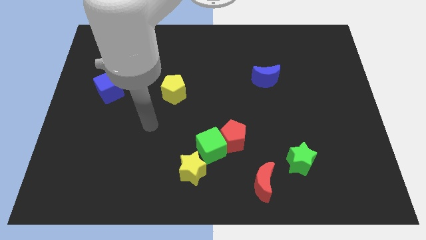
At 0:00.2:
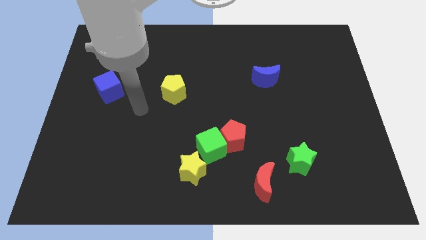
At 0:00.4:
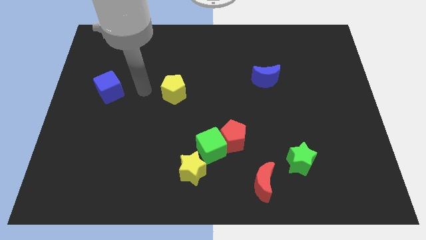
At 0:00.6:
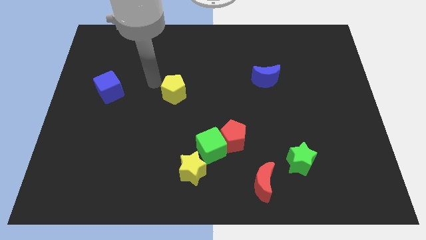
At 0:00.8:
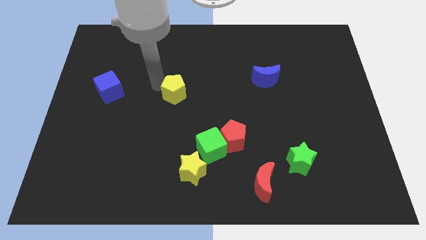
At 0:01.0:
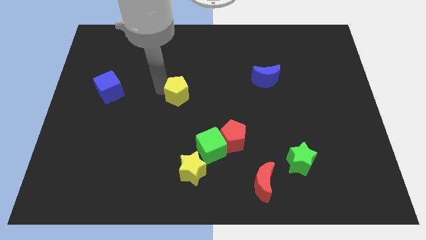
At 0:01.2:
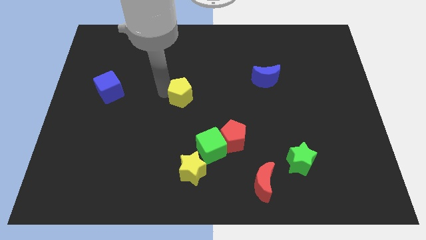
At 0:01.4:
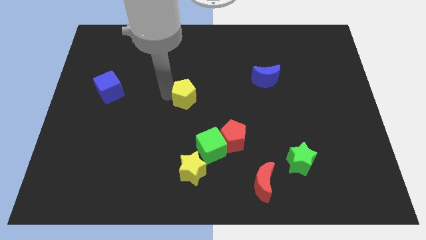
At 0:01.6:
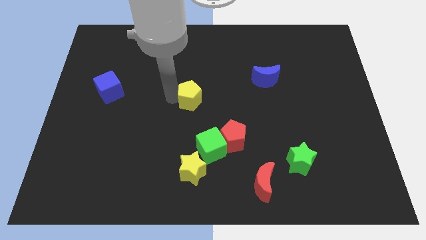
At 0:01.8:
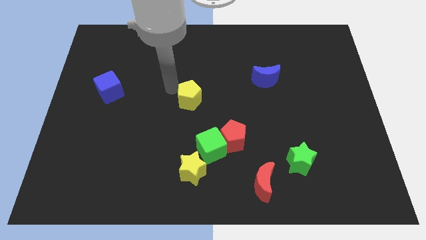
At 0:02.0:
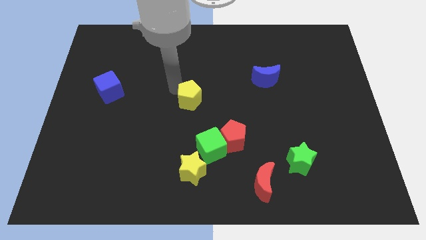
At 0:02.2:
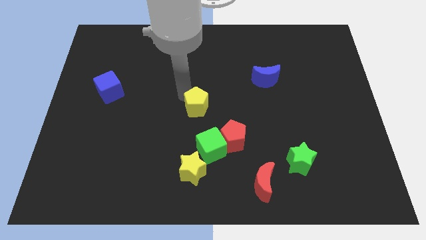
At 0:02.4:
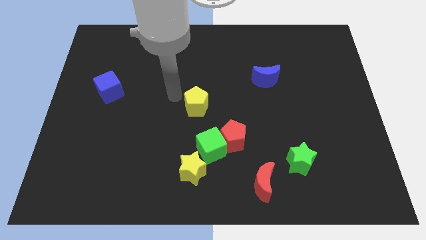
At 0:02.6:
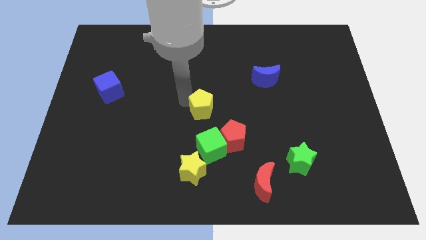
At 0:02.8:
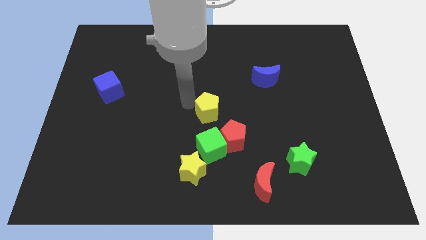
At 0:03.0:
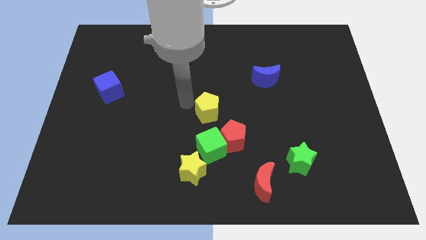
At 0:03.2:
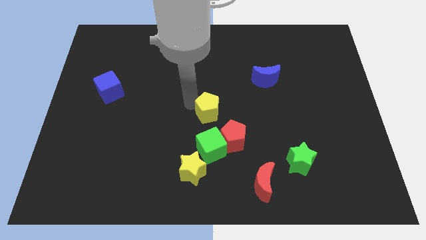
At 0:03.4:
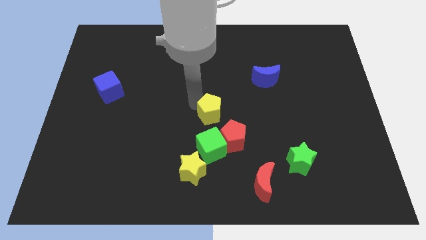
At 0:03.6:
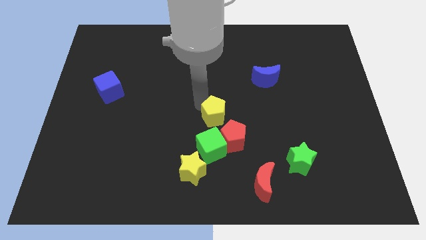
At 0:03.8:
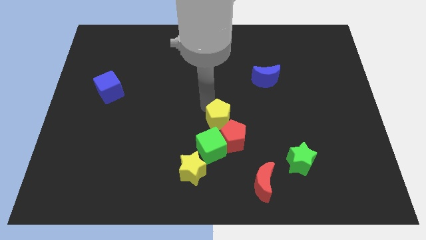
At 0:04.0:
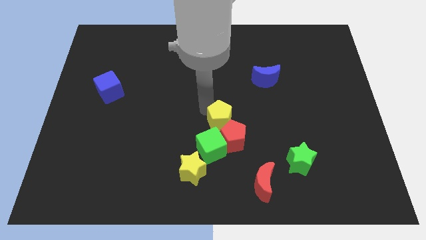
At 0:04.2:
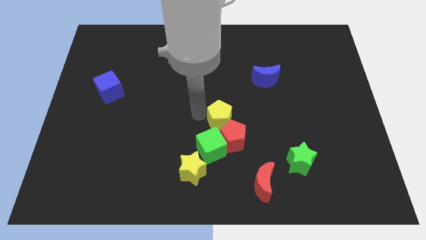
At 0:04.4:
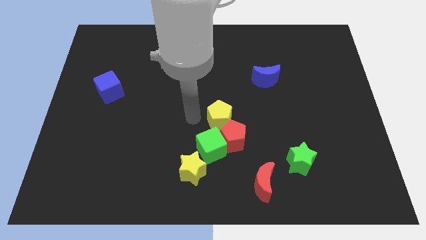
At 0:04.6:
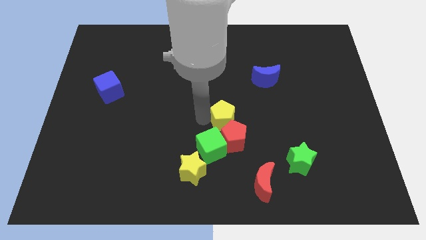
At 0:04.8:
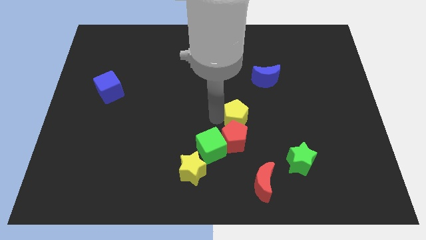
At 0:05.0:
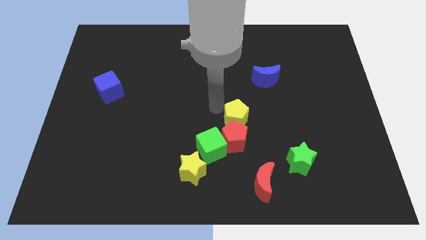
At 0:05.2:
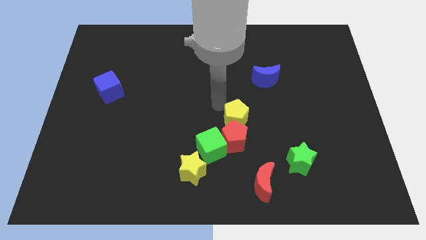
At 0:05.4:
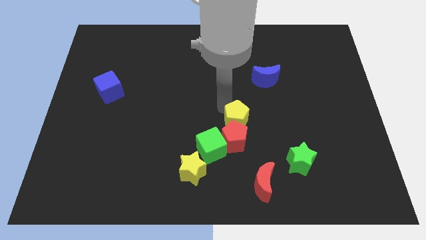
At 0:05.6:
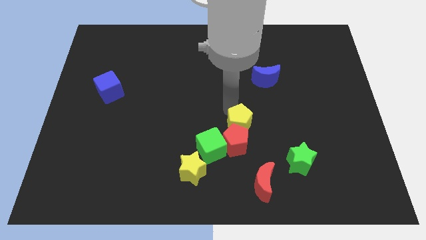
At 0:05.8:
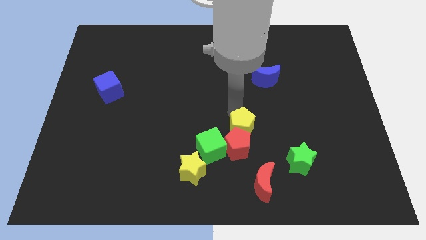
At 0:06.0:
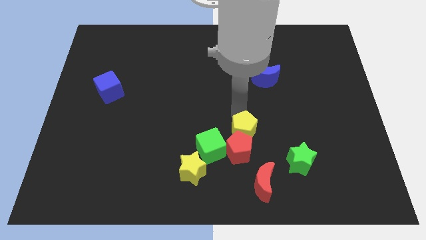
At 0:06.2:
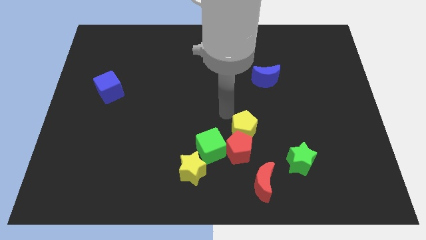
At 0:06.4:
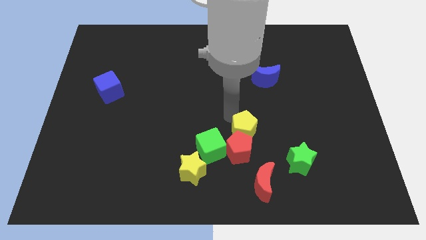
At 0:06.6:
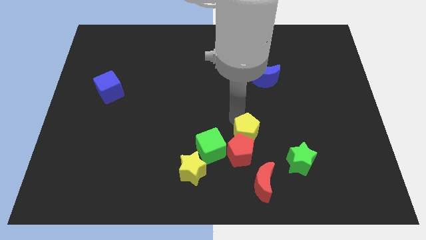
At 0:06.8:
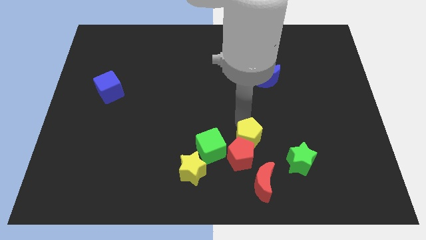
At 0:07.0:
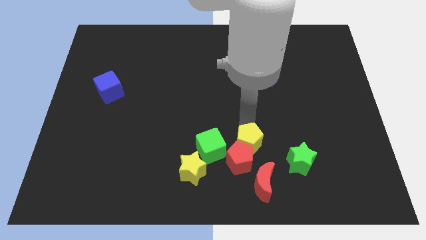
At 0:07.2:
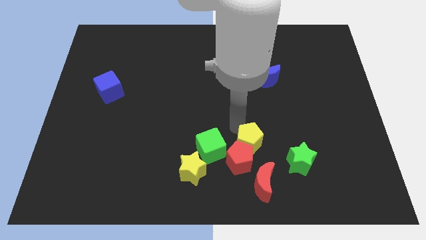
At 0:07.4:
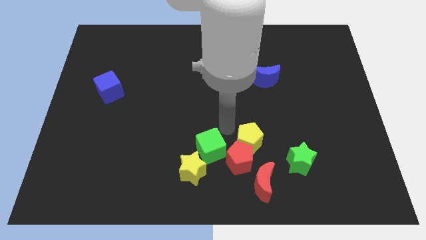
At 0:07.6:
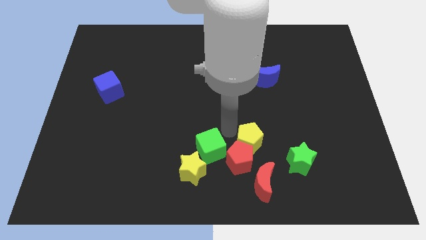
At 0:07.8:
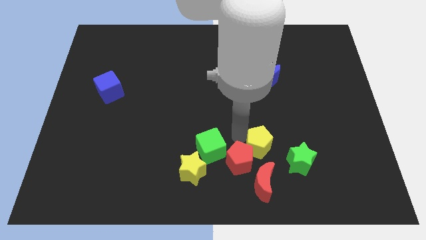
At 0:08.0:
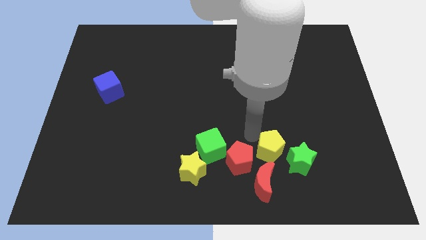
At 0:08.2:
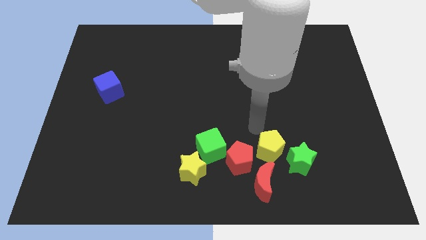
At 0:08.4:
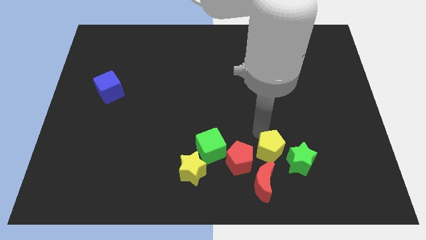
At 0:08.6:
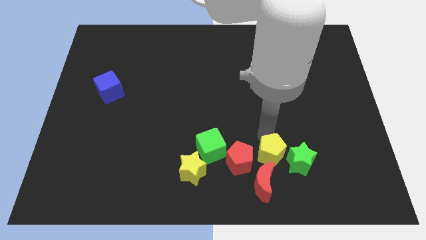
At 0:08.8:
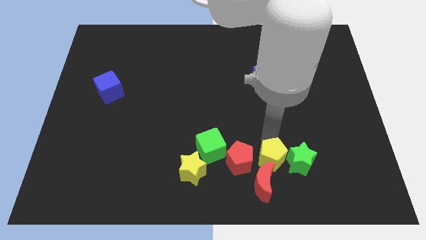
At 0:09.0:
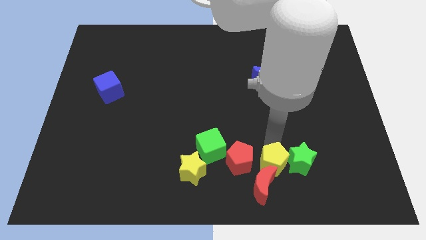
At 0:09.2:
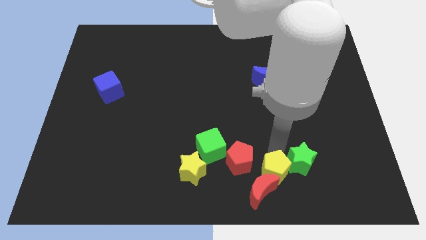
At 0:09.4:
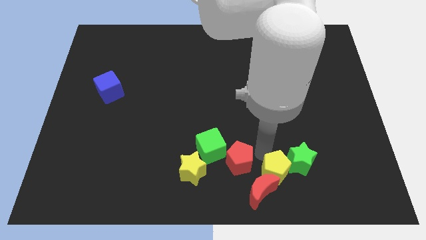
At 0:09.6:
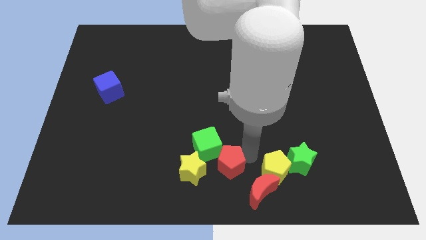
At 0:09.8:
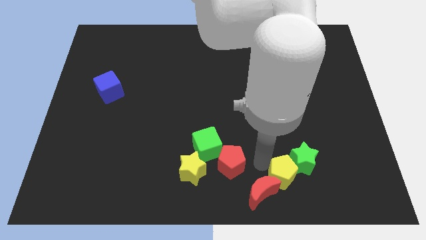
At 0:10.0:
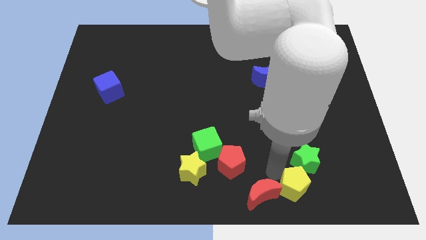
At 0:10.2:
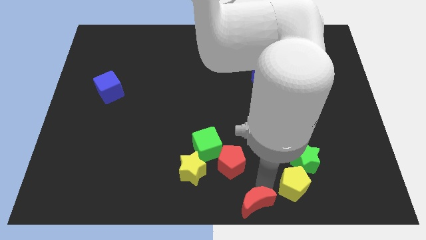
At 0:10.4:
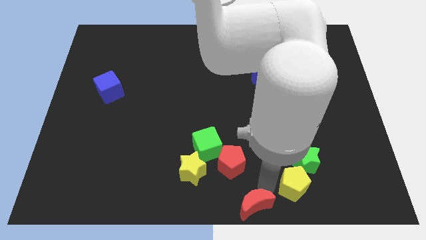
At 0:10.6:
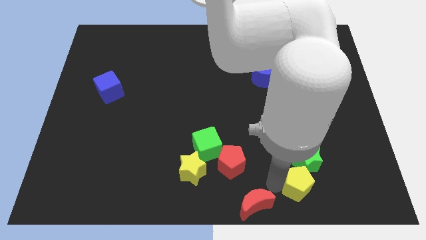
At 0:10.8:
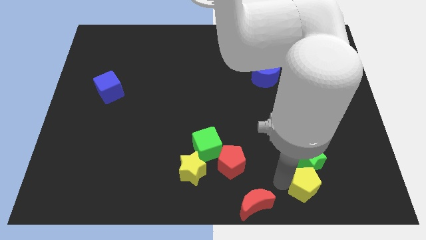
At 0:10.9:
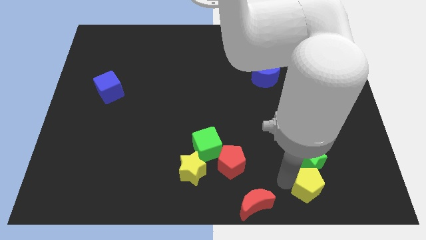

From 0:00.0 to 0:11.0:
push the yellow pentagon to the bottom right of the green star

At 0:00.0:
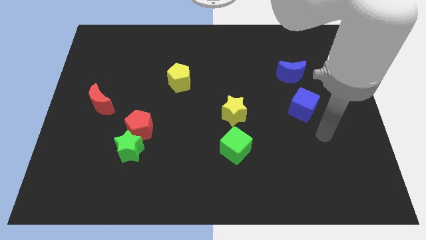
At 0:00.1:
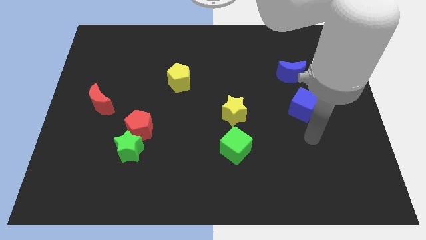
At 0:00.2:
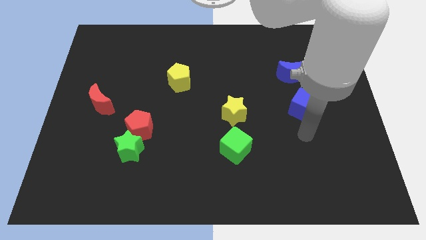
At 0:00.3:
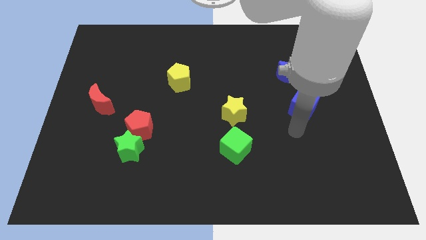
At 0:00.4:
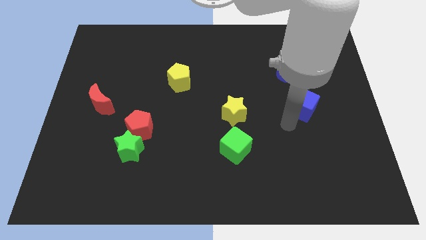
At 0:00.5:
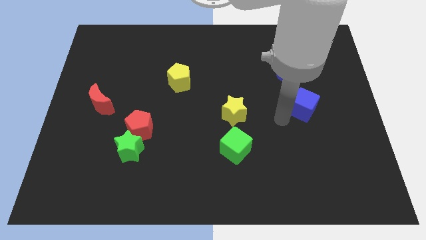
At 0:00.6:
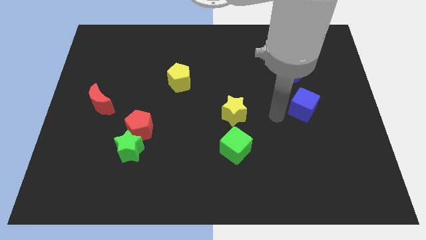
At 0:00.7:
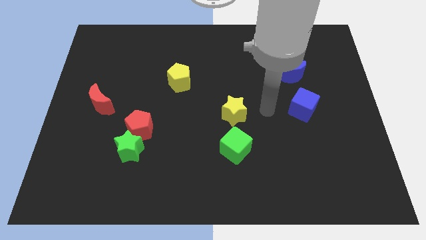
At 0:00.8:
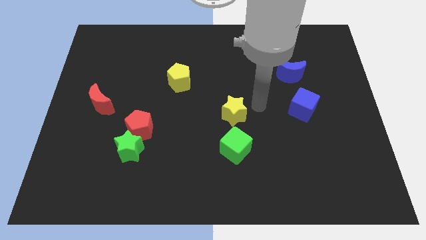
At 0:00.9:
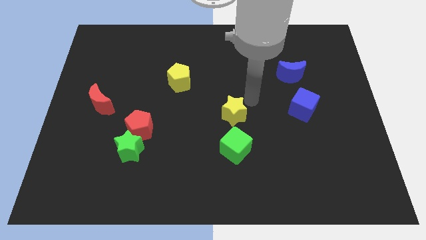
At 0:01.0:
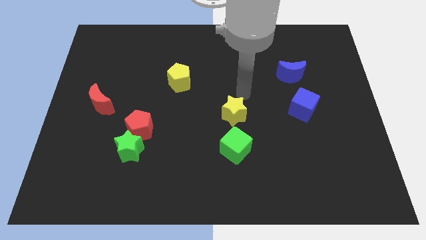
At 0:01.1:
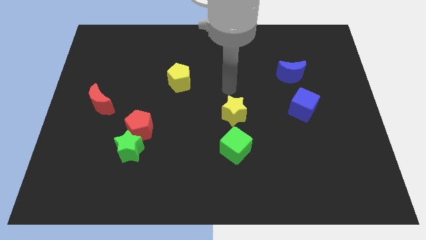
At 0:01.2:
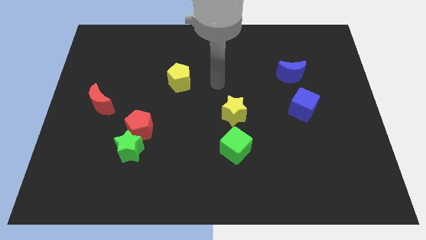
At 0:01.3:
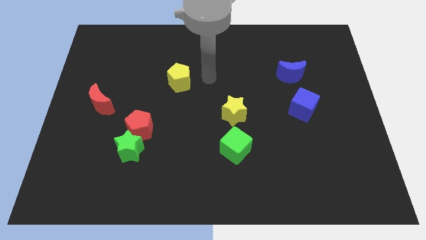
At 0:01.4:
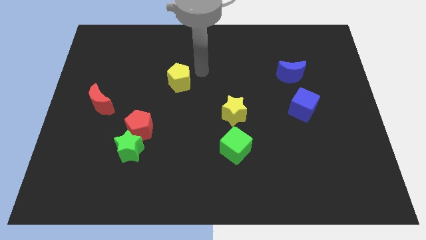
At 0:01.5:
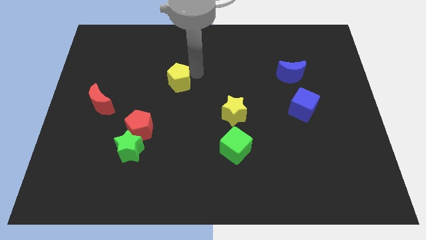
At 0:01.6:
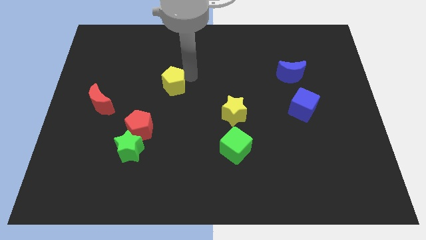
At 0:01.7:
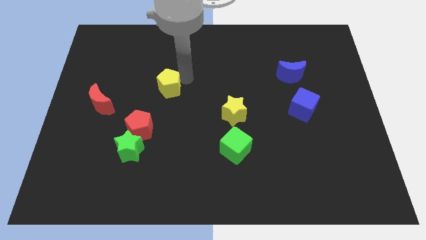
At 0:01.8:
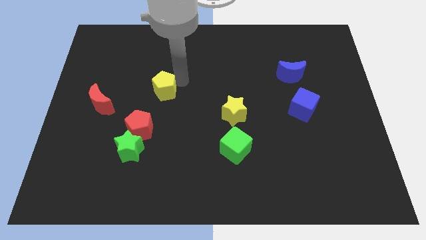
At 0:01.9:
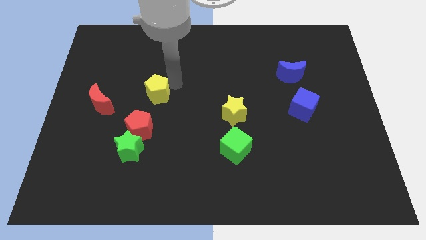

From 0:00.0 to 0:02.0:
move the yellow pentagon just right of the red moon
